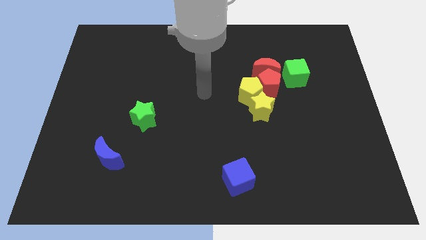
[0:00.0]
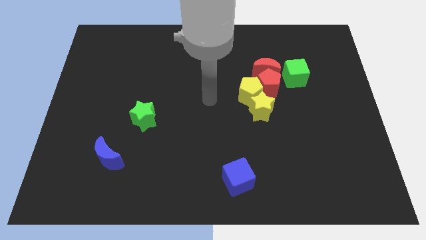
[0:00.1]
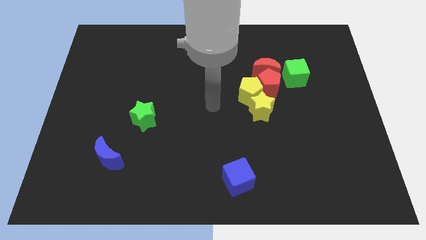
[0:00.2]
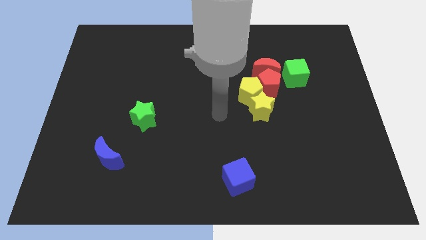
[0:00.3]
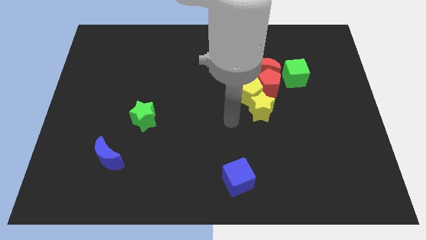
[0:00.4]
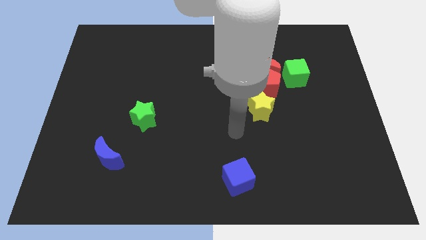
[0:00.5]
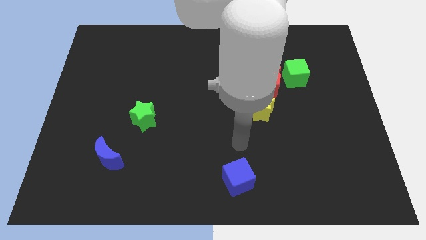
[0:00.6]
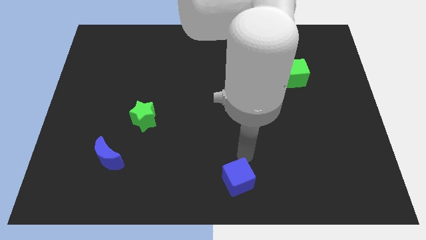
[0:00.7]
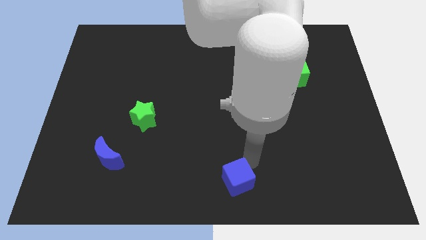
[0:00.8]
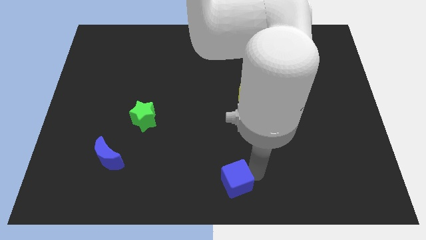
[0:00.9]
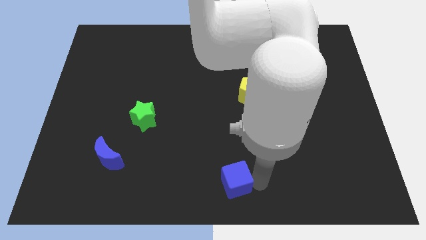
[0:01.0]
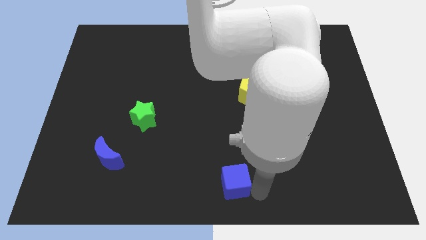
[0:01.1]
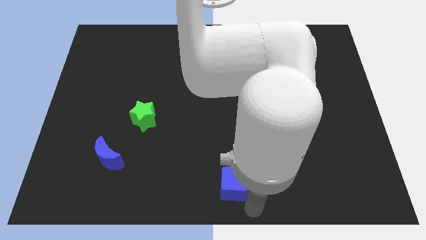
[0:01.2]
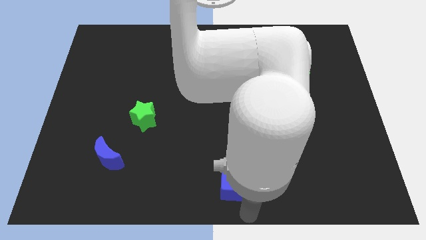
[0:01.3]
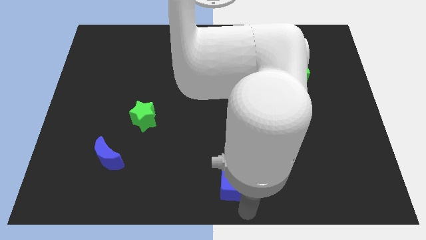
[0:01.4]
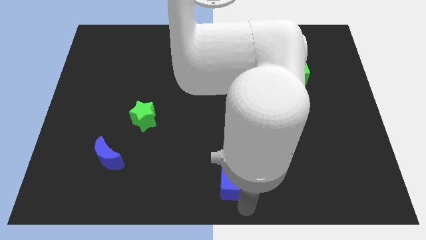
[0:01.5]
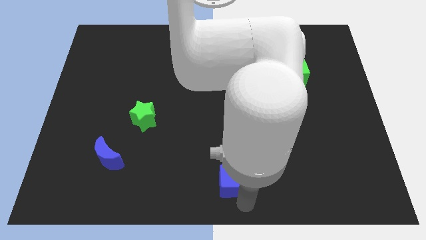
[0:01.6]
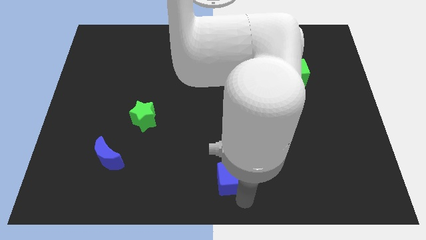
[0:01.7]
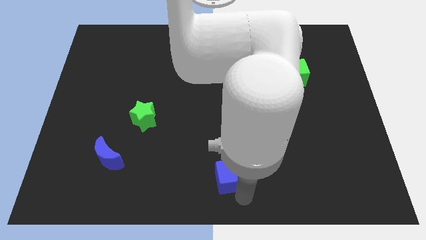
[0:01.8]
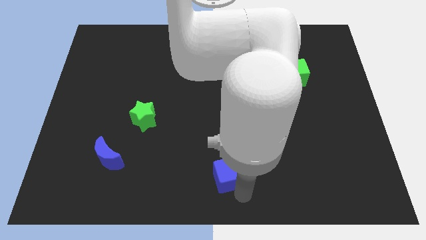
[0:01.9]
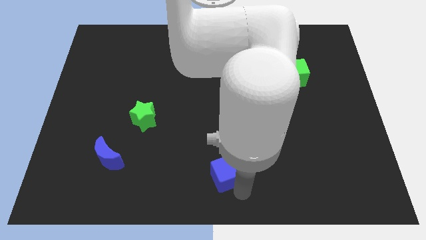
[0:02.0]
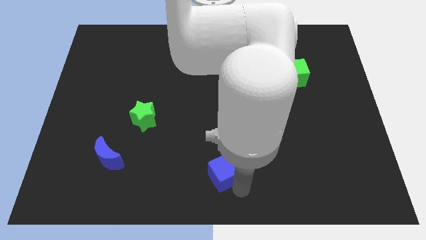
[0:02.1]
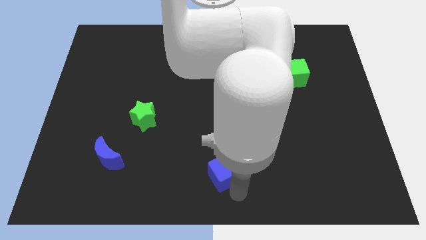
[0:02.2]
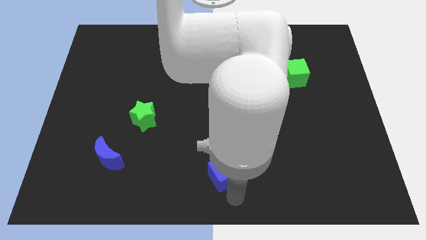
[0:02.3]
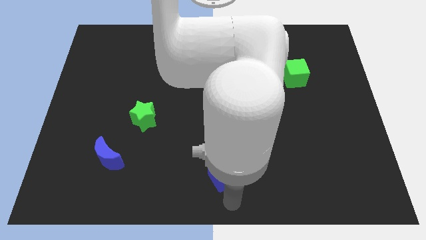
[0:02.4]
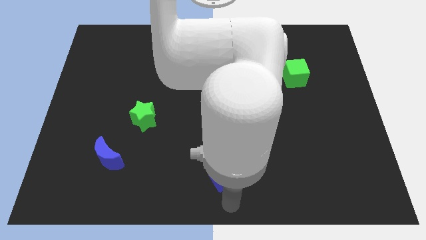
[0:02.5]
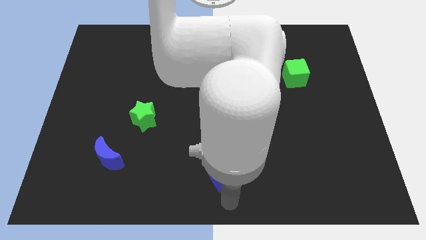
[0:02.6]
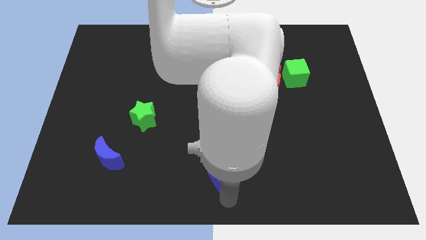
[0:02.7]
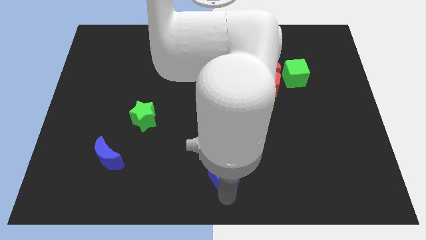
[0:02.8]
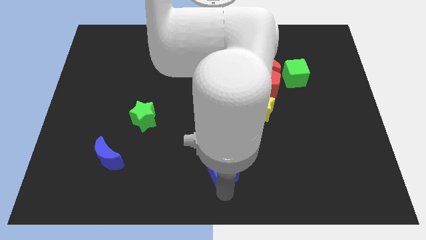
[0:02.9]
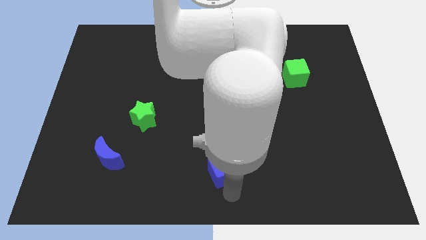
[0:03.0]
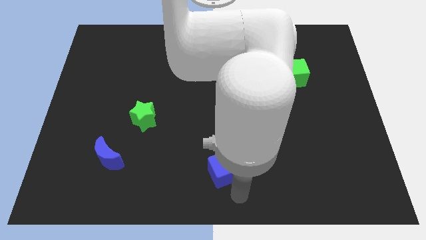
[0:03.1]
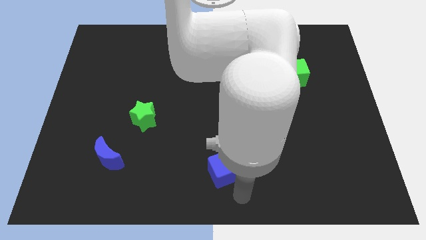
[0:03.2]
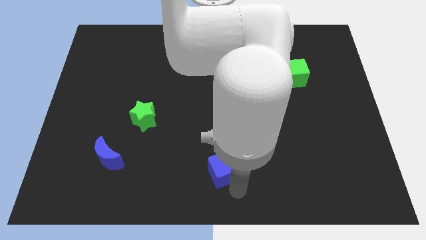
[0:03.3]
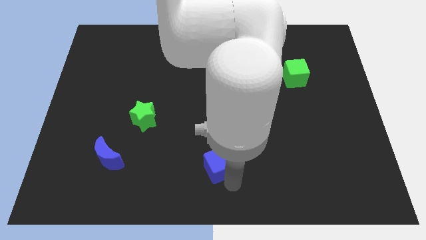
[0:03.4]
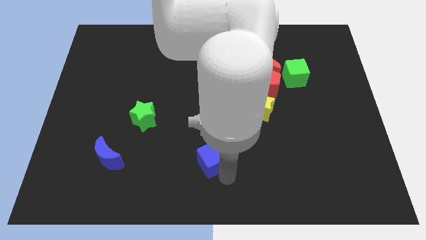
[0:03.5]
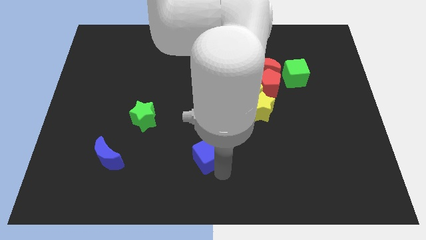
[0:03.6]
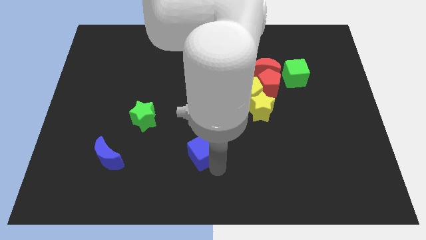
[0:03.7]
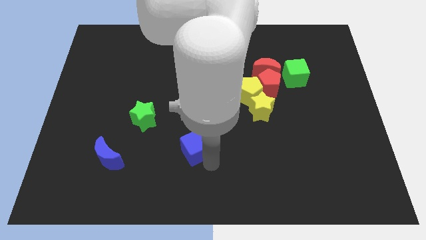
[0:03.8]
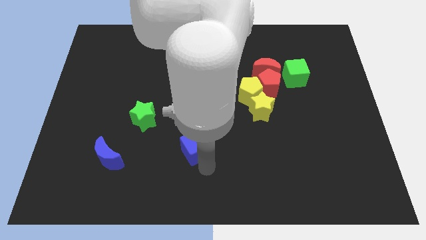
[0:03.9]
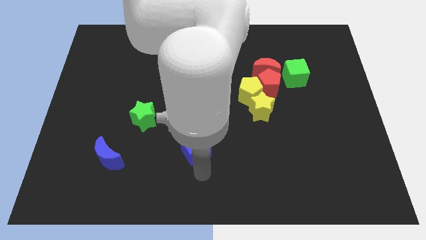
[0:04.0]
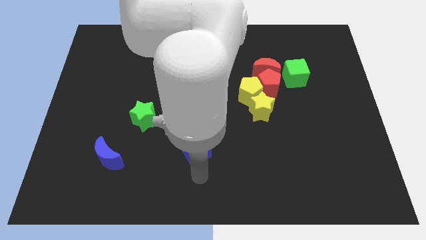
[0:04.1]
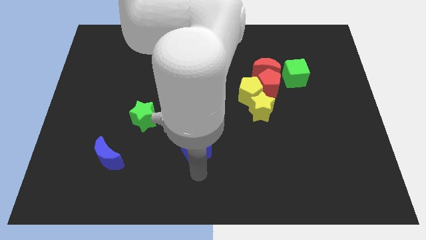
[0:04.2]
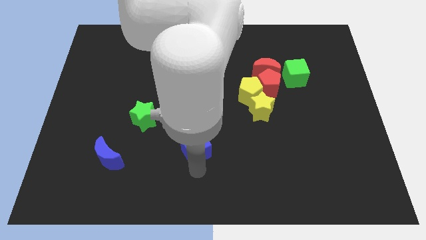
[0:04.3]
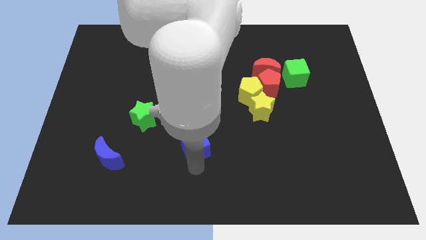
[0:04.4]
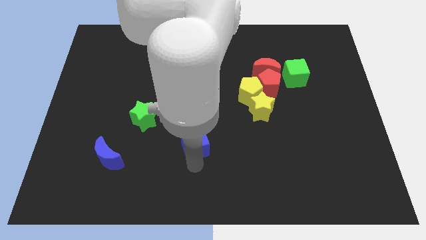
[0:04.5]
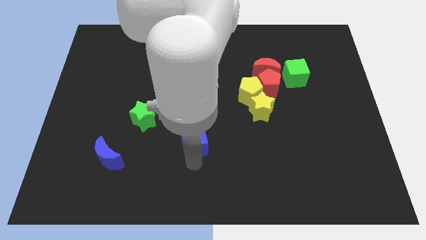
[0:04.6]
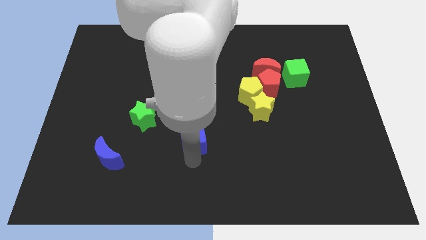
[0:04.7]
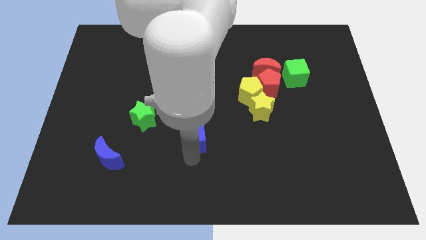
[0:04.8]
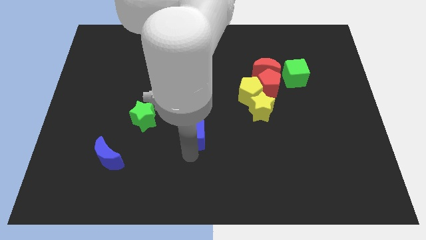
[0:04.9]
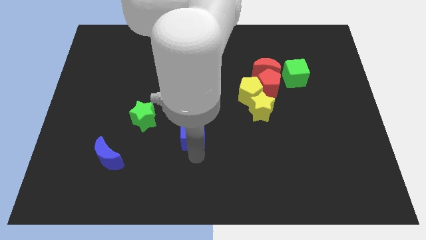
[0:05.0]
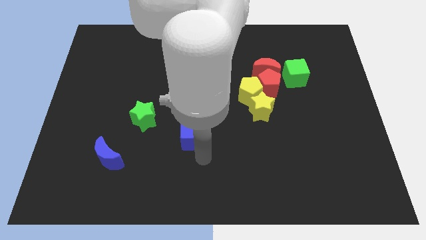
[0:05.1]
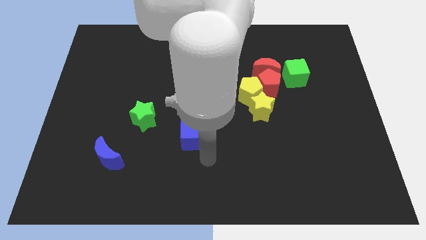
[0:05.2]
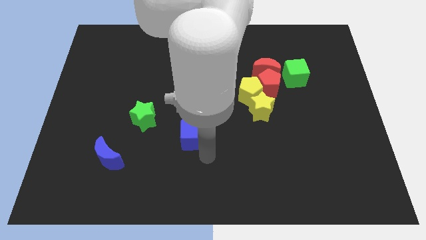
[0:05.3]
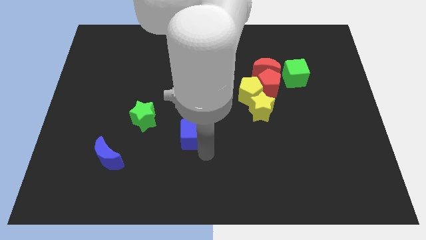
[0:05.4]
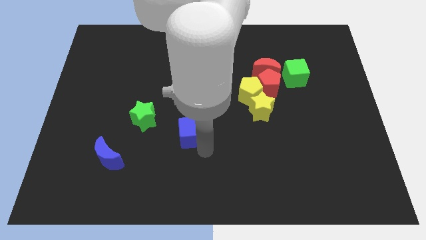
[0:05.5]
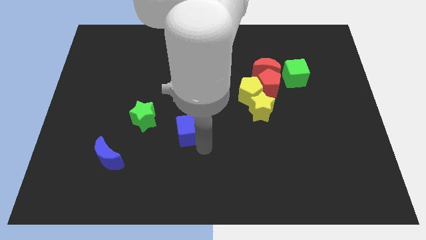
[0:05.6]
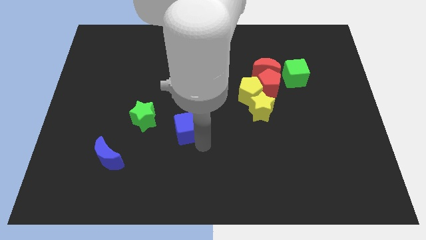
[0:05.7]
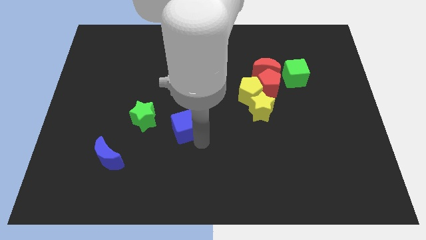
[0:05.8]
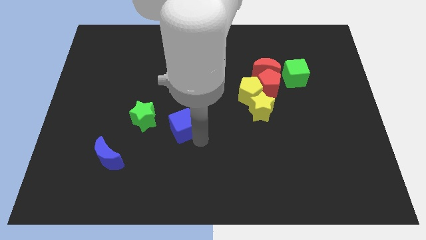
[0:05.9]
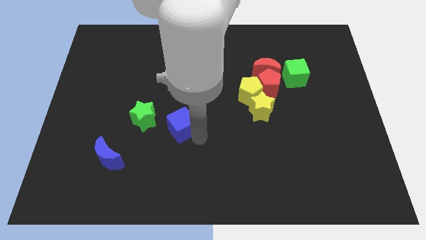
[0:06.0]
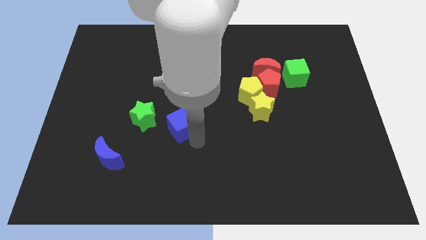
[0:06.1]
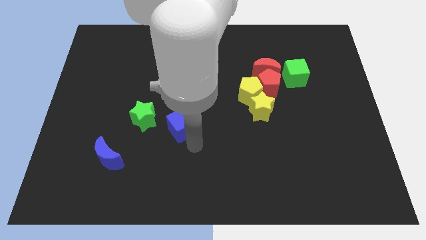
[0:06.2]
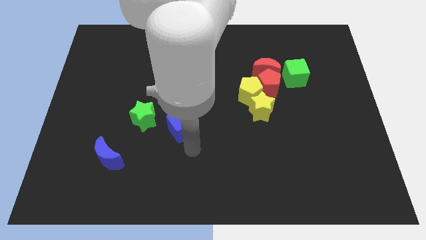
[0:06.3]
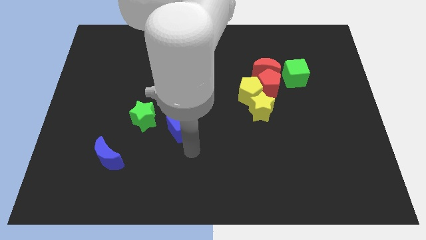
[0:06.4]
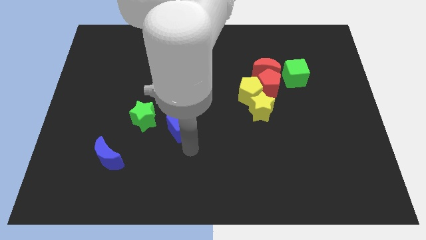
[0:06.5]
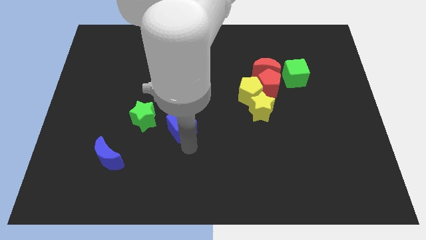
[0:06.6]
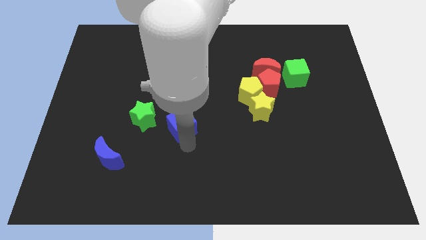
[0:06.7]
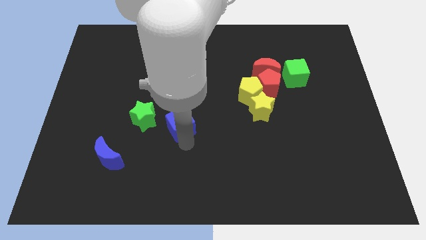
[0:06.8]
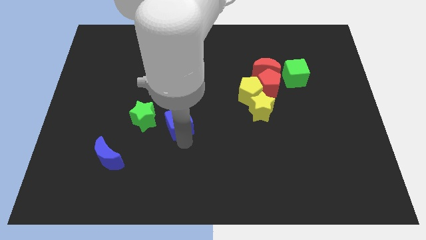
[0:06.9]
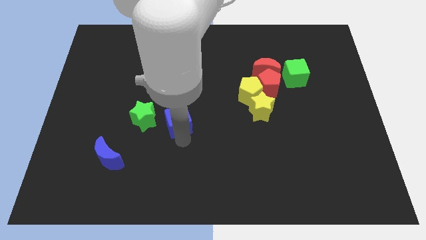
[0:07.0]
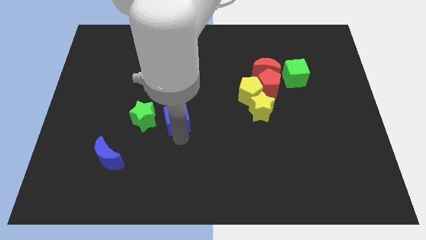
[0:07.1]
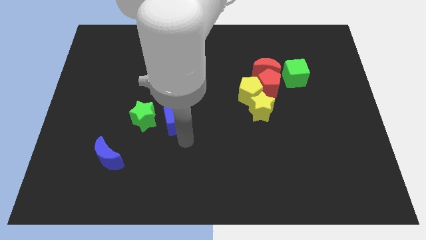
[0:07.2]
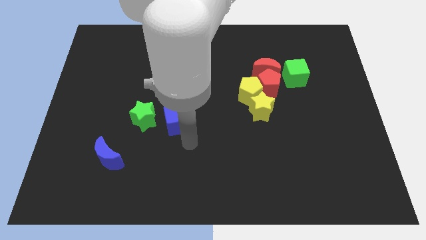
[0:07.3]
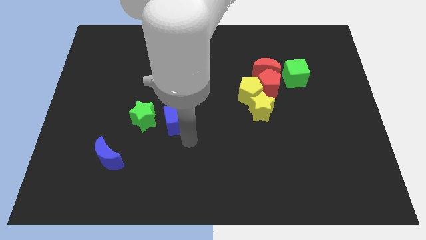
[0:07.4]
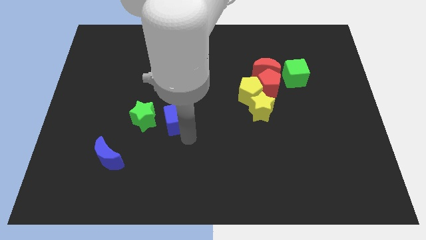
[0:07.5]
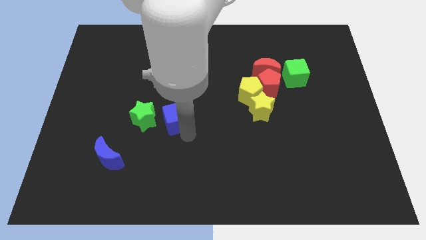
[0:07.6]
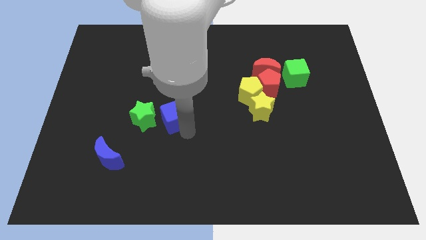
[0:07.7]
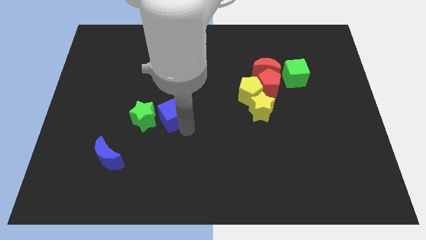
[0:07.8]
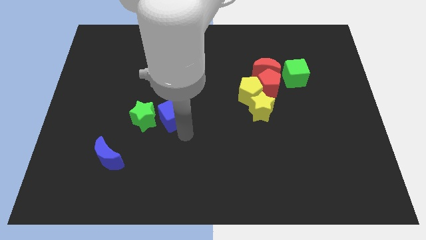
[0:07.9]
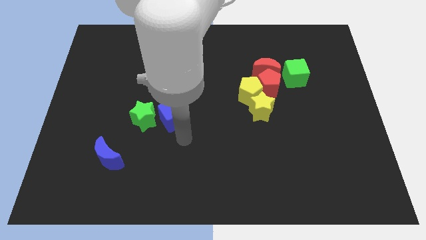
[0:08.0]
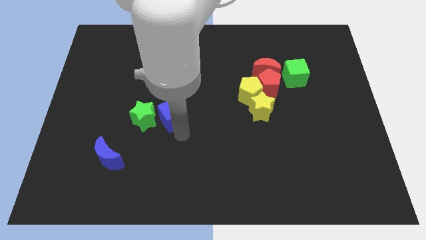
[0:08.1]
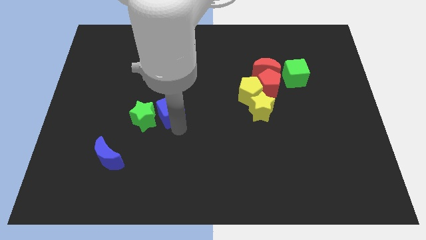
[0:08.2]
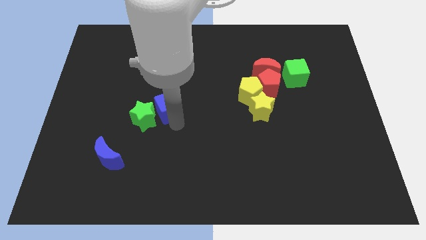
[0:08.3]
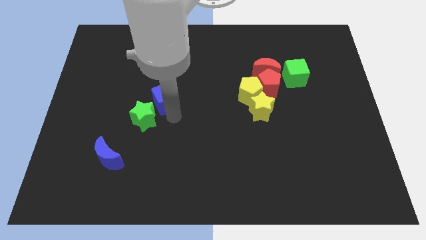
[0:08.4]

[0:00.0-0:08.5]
slide the blue cube above the green star
